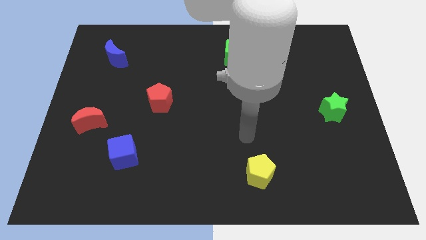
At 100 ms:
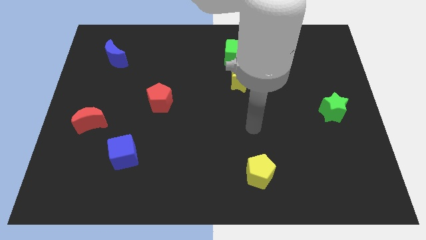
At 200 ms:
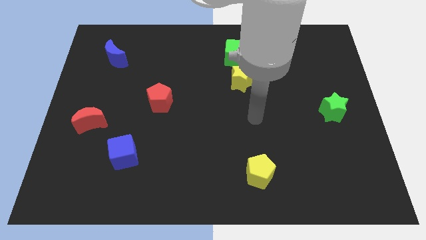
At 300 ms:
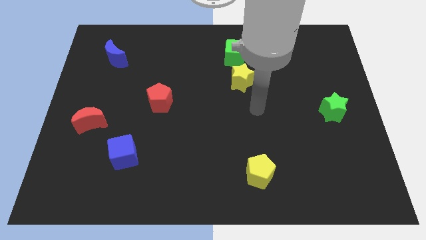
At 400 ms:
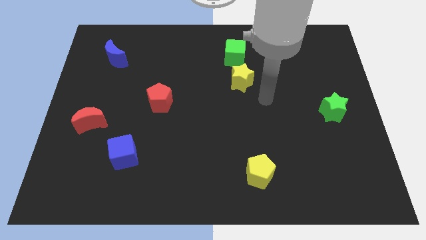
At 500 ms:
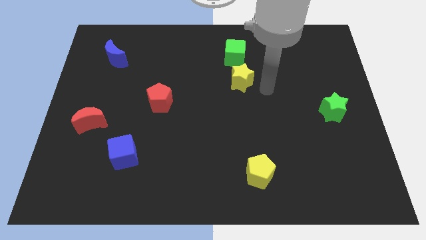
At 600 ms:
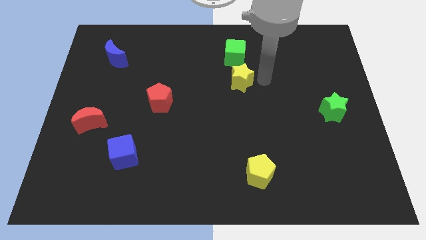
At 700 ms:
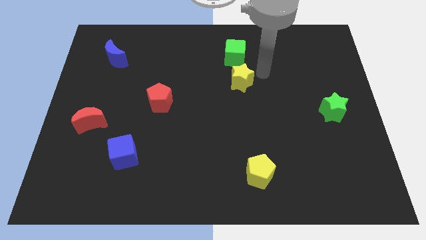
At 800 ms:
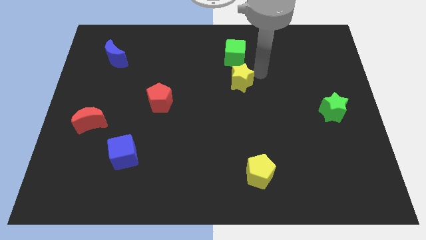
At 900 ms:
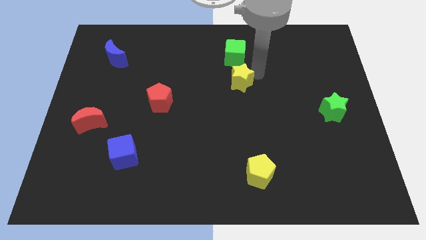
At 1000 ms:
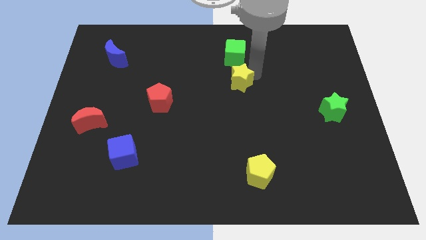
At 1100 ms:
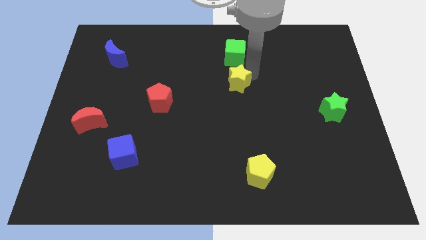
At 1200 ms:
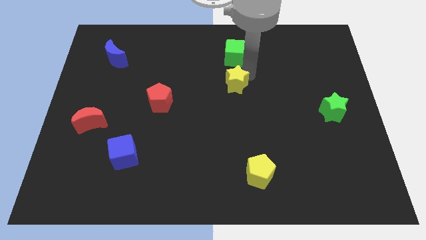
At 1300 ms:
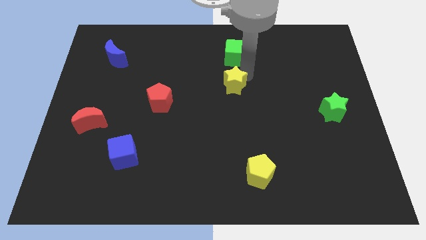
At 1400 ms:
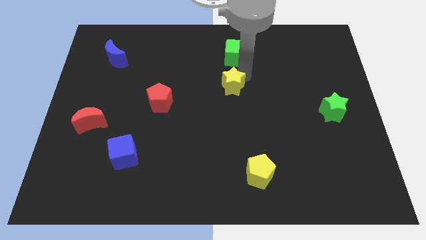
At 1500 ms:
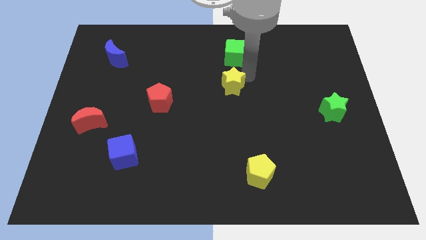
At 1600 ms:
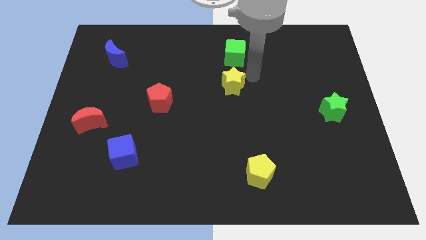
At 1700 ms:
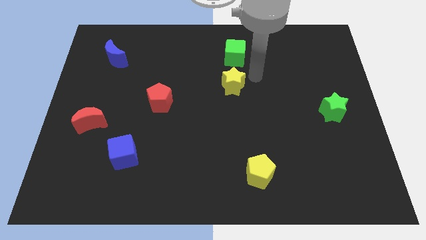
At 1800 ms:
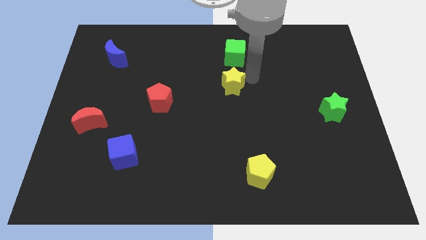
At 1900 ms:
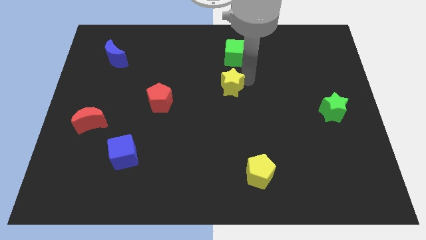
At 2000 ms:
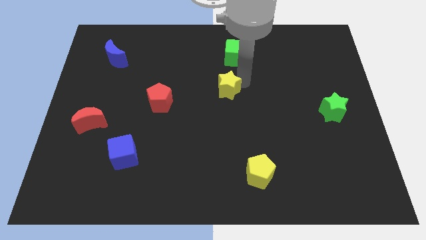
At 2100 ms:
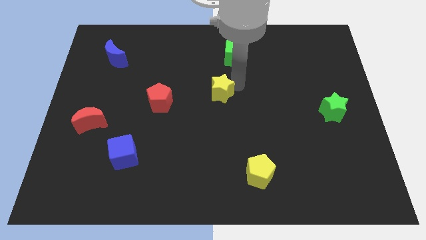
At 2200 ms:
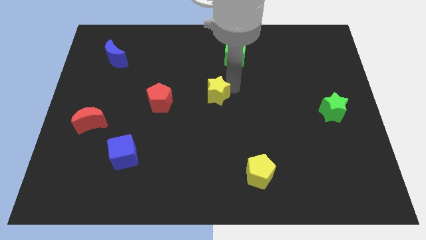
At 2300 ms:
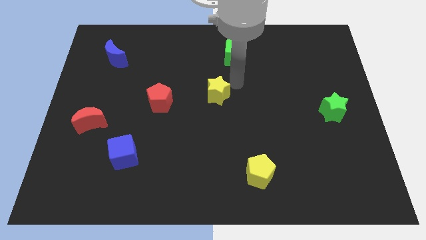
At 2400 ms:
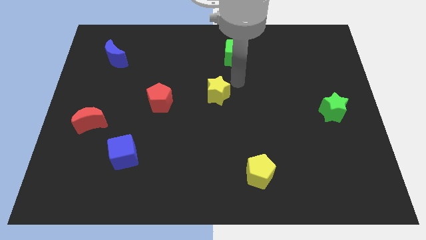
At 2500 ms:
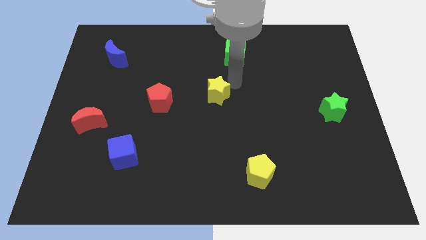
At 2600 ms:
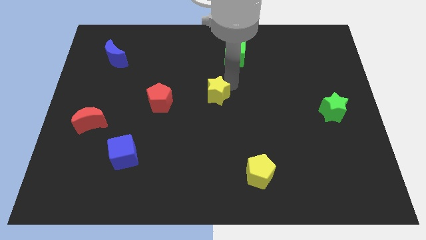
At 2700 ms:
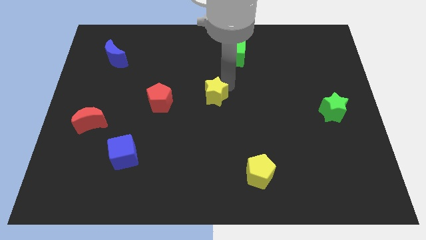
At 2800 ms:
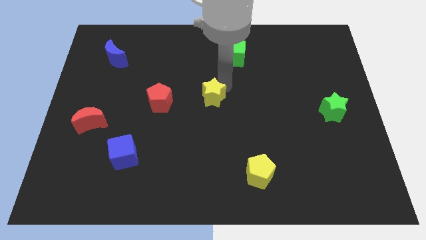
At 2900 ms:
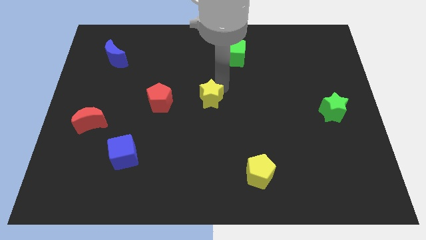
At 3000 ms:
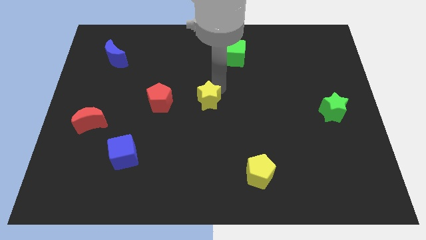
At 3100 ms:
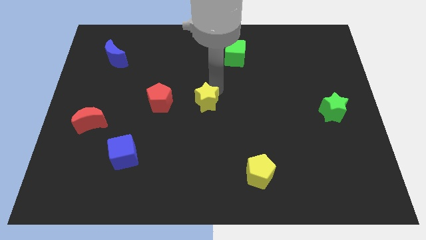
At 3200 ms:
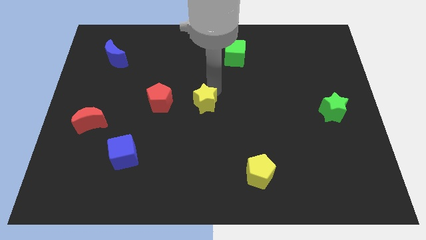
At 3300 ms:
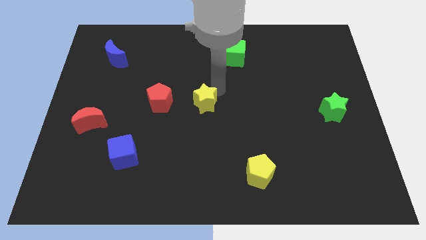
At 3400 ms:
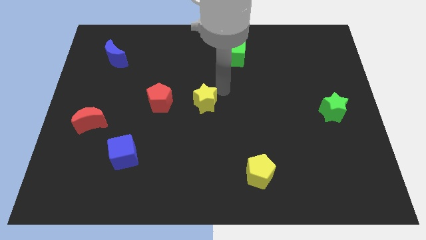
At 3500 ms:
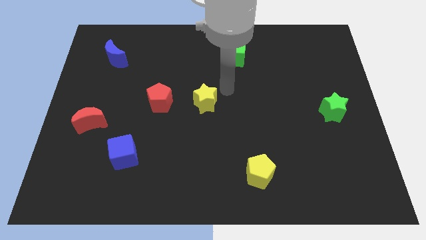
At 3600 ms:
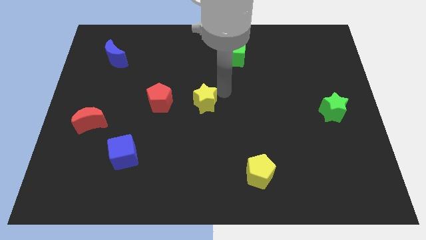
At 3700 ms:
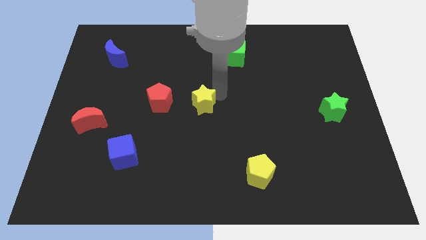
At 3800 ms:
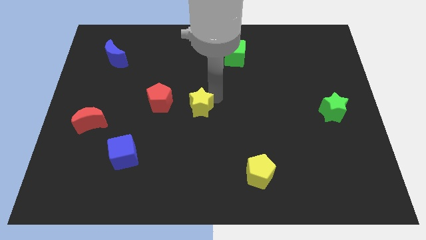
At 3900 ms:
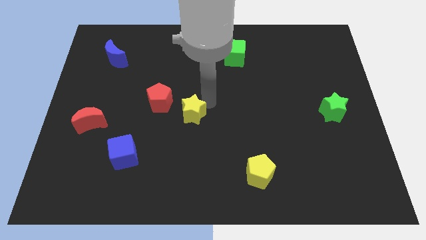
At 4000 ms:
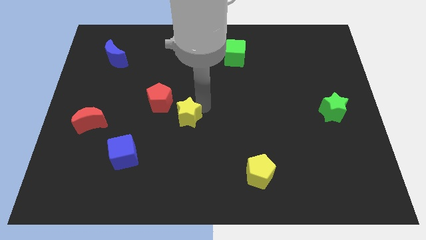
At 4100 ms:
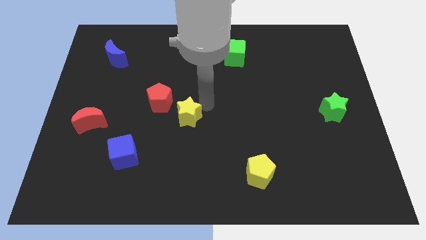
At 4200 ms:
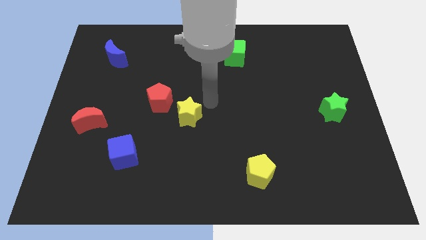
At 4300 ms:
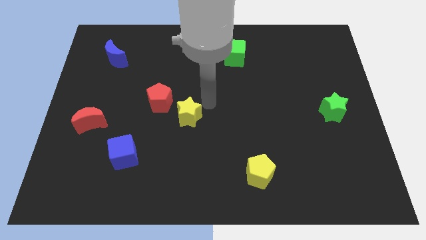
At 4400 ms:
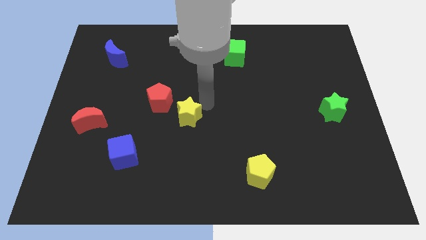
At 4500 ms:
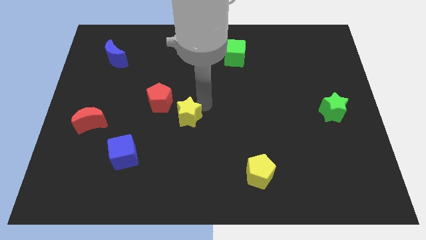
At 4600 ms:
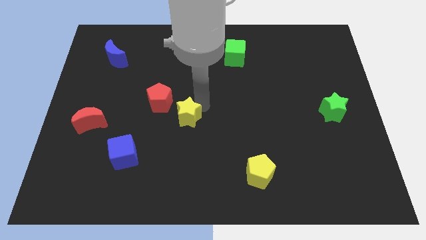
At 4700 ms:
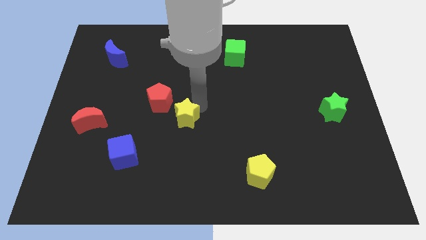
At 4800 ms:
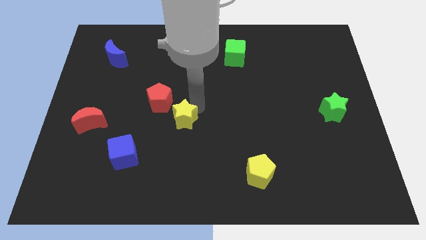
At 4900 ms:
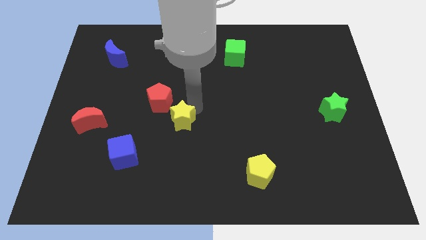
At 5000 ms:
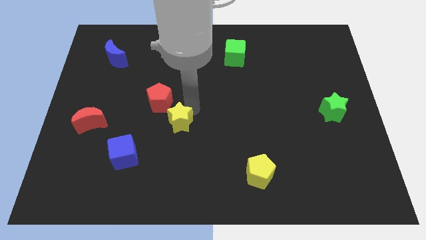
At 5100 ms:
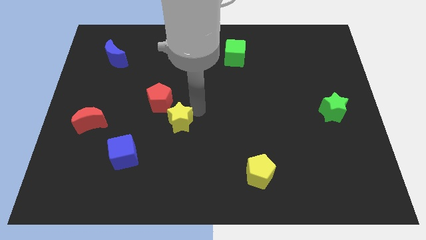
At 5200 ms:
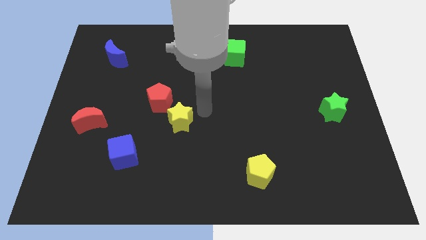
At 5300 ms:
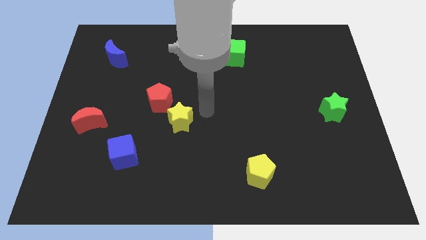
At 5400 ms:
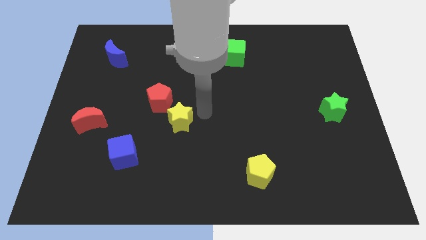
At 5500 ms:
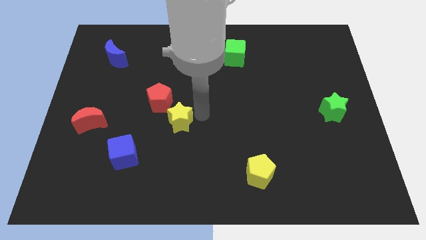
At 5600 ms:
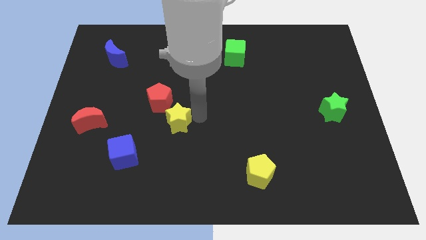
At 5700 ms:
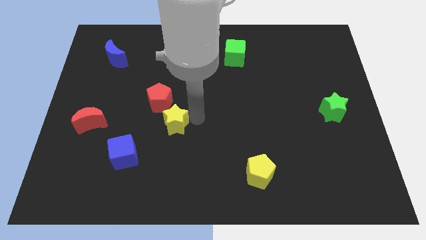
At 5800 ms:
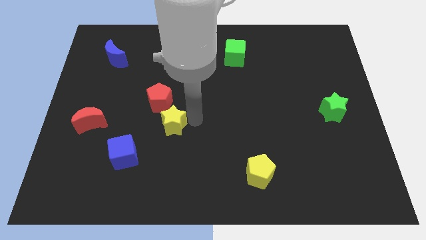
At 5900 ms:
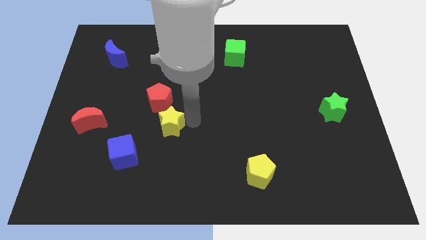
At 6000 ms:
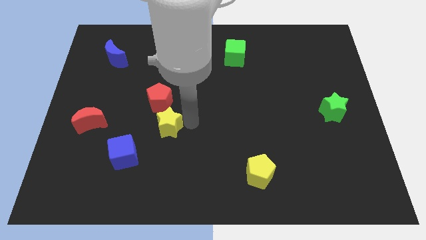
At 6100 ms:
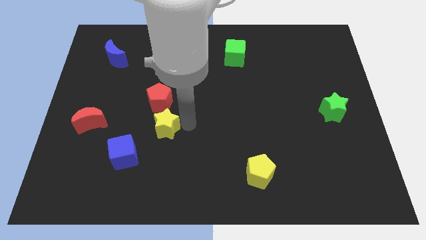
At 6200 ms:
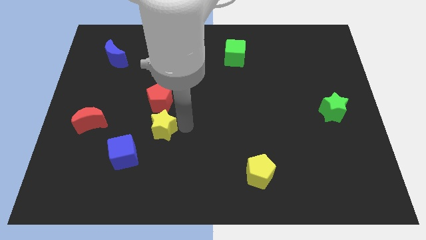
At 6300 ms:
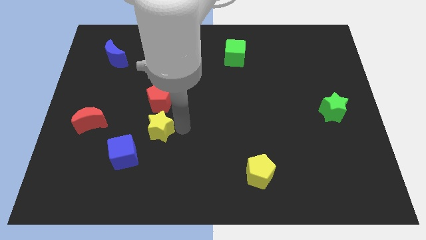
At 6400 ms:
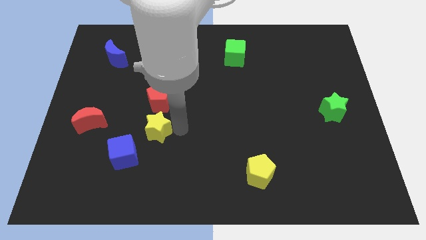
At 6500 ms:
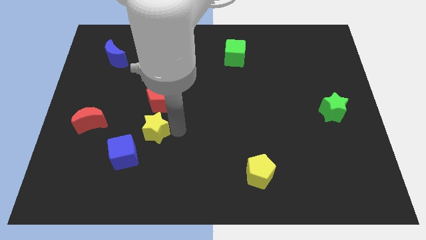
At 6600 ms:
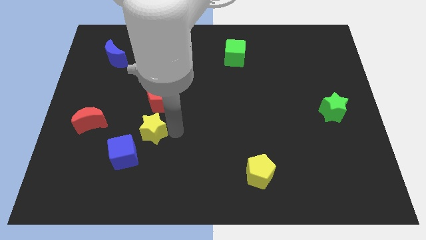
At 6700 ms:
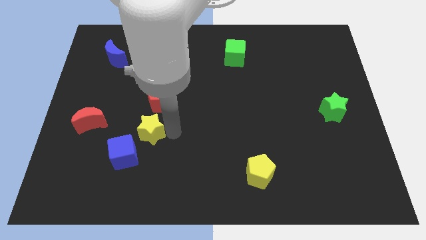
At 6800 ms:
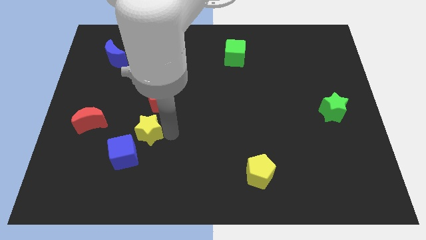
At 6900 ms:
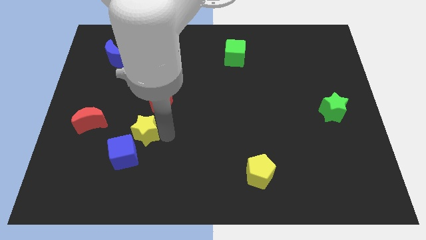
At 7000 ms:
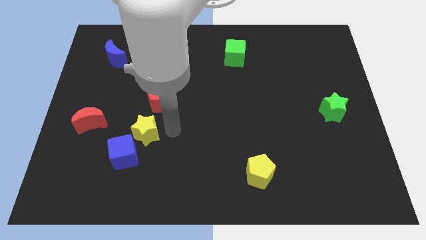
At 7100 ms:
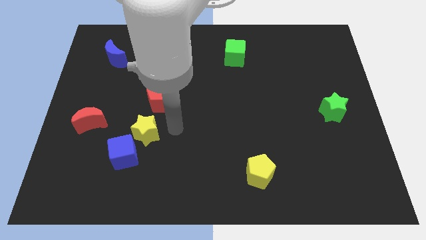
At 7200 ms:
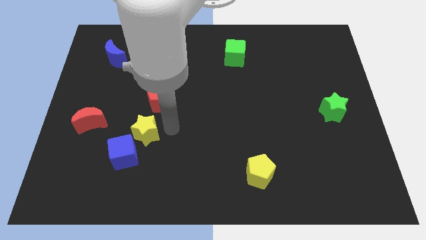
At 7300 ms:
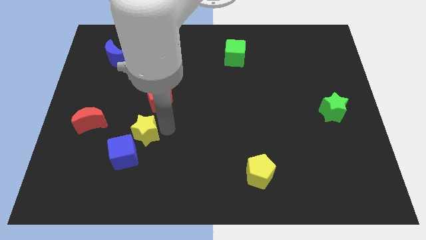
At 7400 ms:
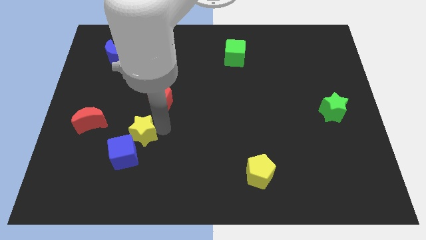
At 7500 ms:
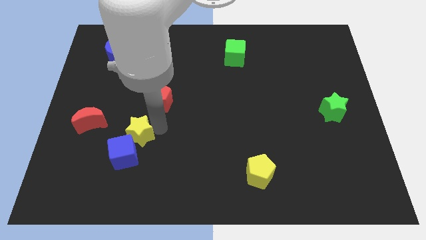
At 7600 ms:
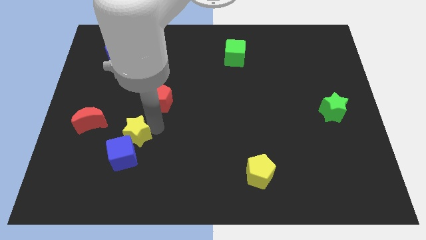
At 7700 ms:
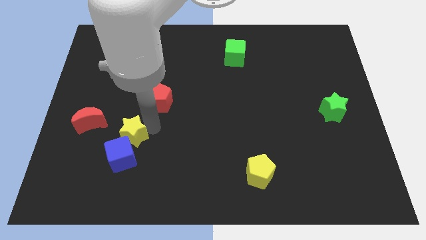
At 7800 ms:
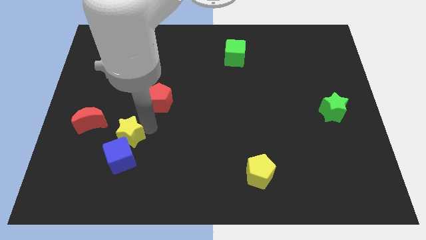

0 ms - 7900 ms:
push the yellow star to the bottom right of the red moon
